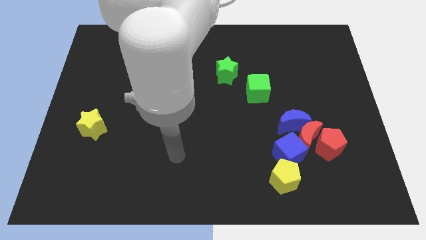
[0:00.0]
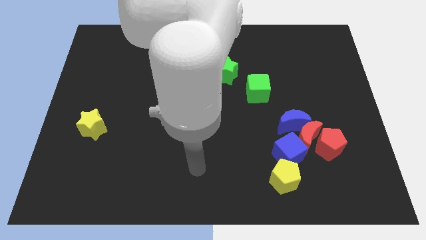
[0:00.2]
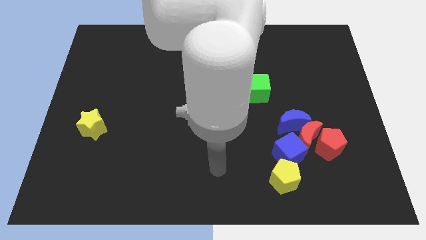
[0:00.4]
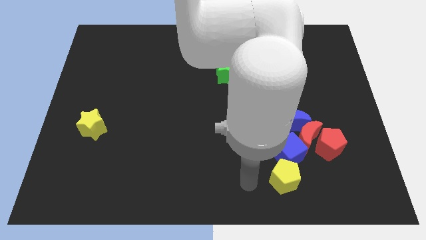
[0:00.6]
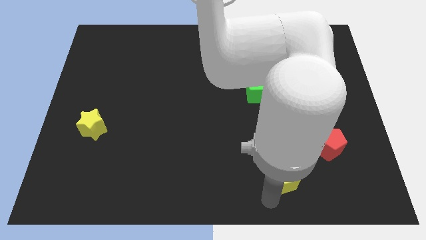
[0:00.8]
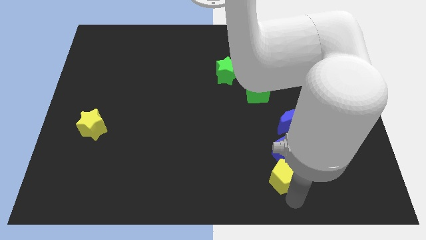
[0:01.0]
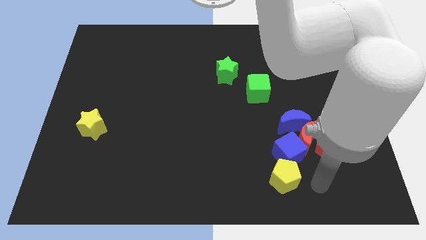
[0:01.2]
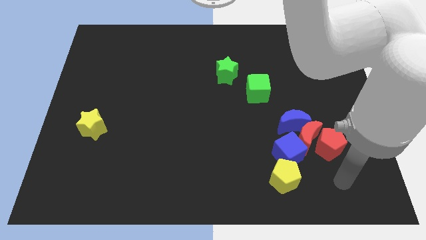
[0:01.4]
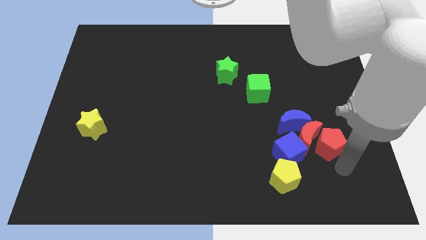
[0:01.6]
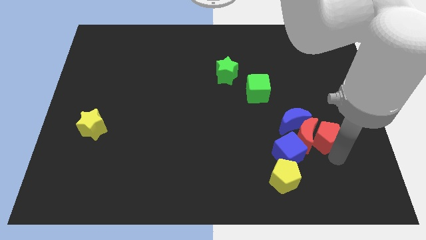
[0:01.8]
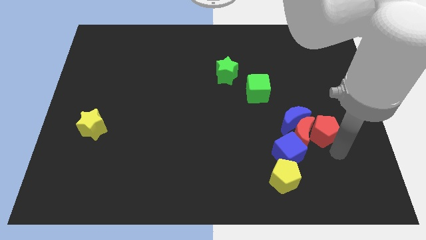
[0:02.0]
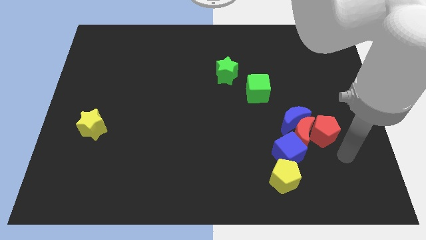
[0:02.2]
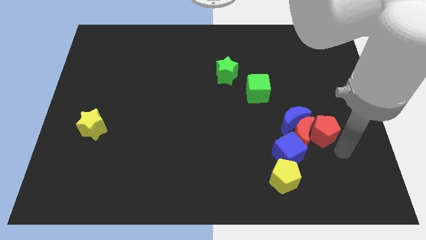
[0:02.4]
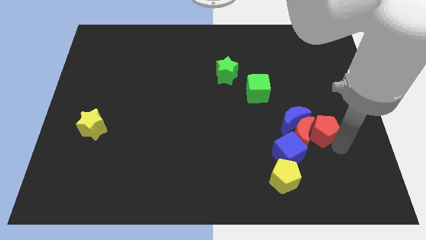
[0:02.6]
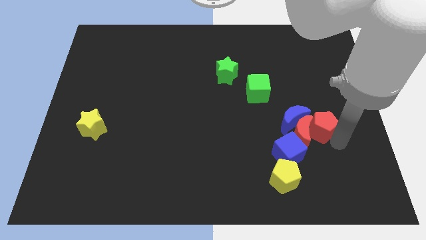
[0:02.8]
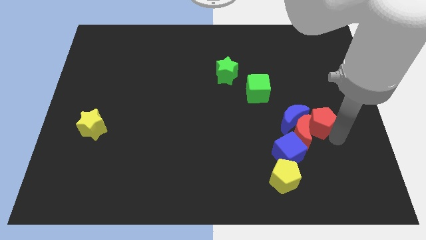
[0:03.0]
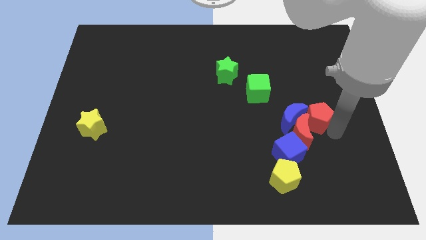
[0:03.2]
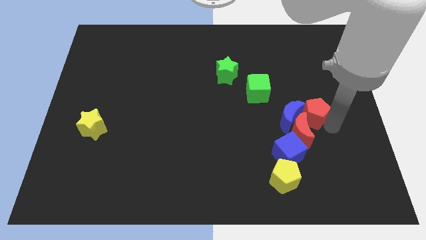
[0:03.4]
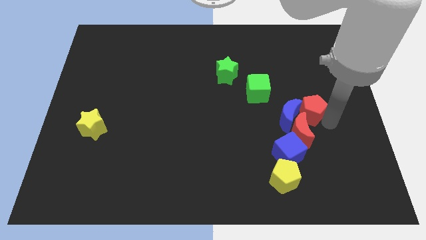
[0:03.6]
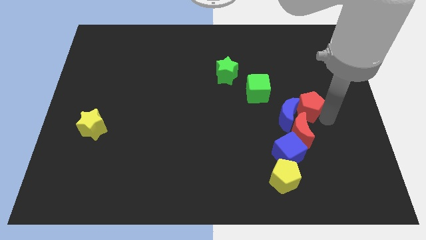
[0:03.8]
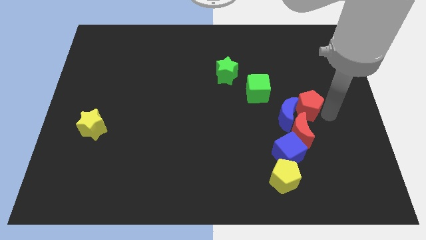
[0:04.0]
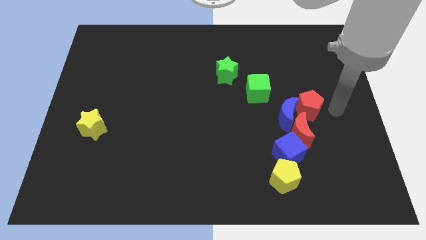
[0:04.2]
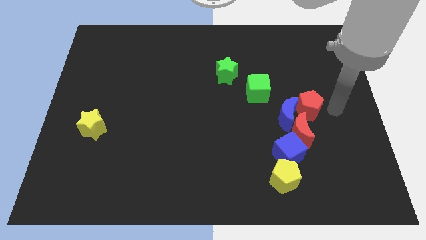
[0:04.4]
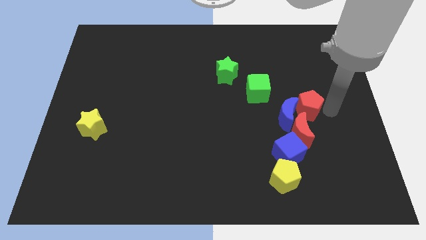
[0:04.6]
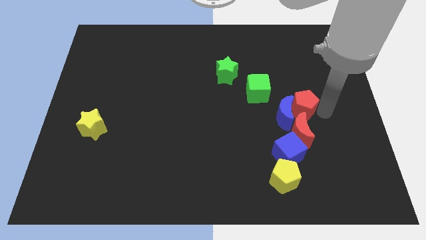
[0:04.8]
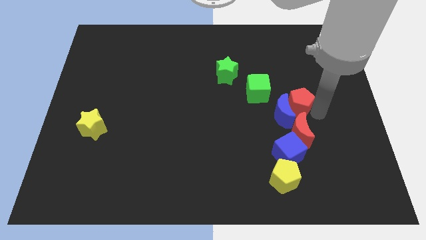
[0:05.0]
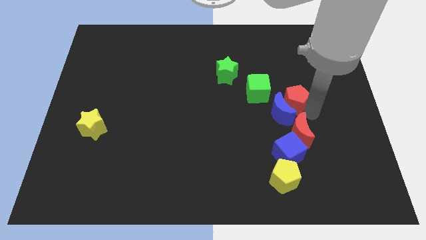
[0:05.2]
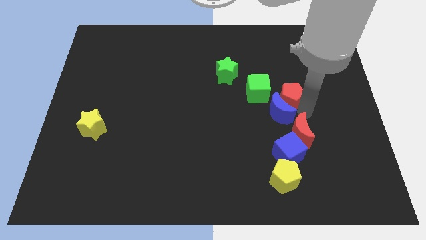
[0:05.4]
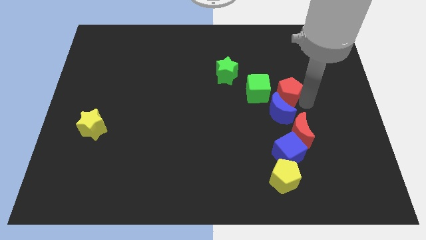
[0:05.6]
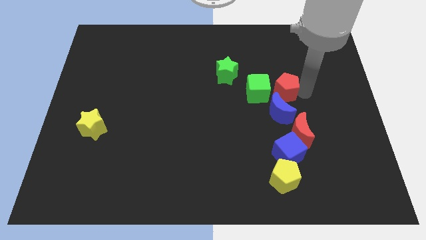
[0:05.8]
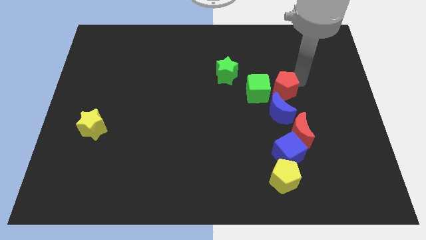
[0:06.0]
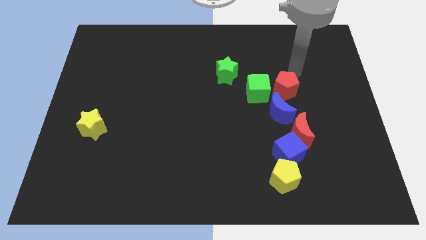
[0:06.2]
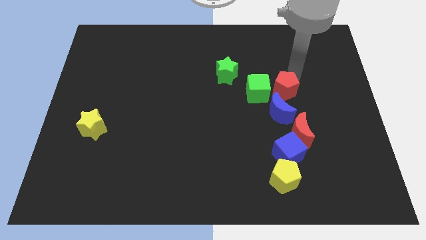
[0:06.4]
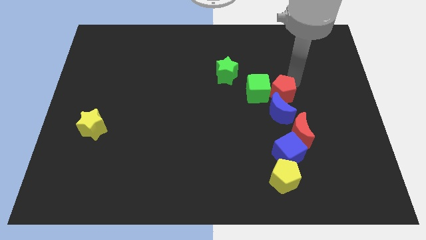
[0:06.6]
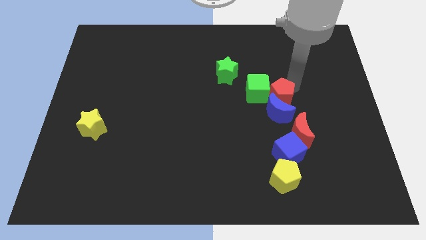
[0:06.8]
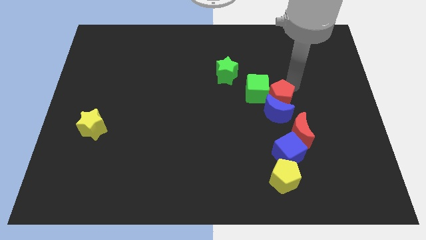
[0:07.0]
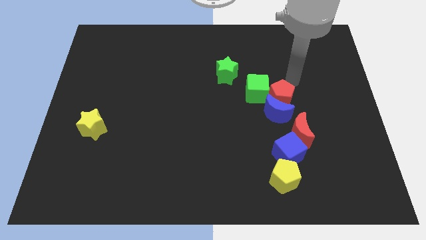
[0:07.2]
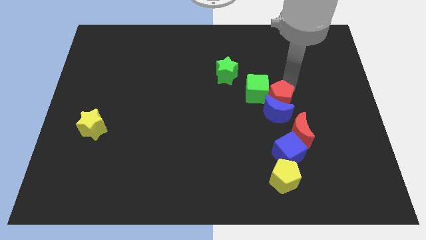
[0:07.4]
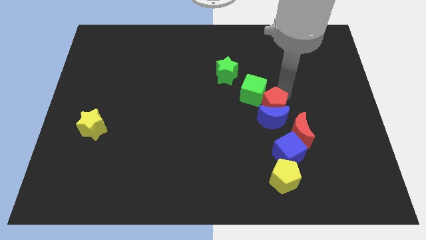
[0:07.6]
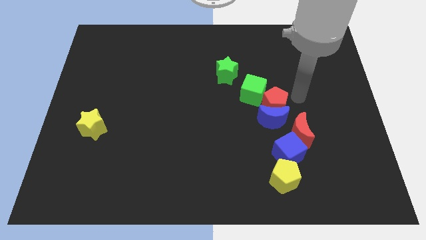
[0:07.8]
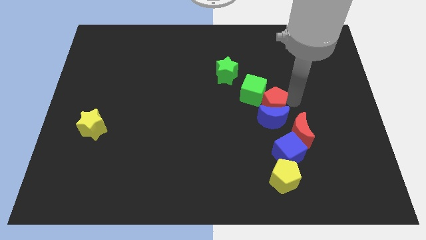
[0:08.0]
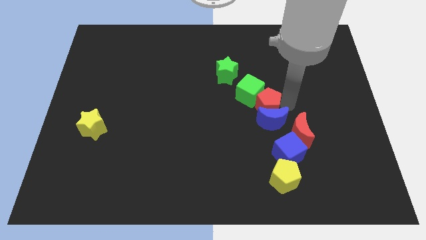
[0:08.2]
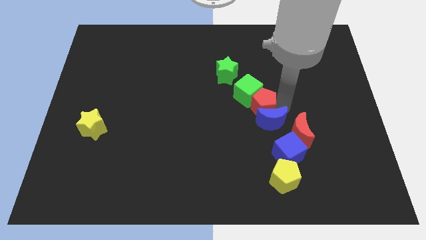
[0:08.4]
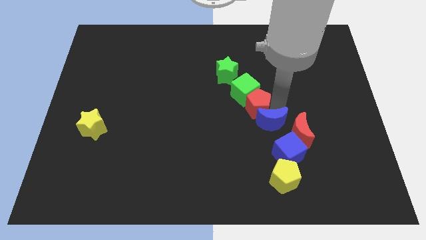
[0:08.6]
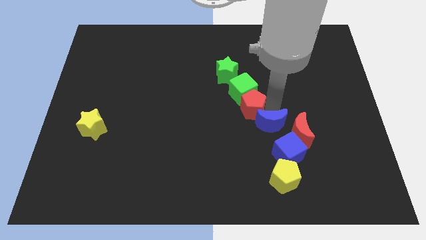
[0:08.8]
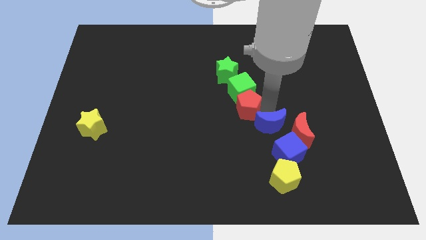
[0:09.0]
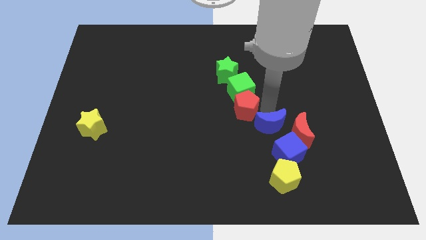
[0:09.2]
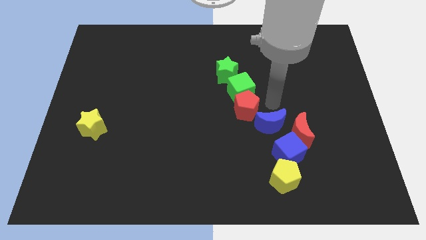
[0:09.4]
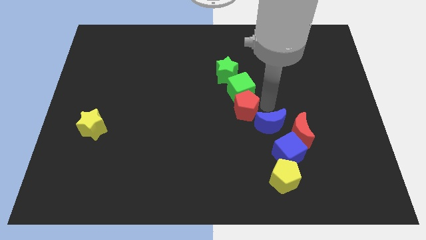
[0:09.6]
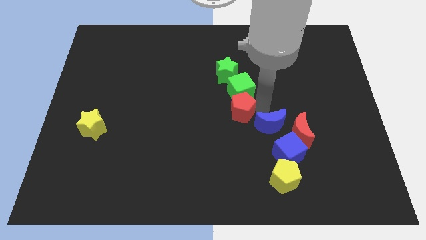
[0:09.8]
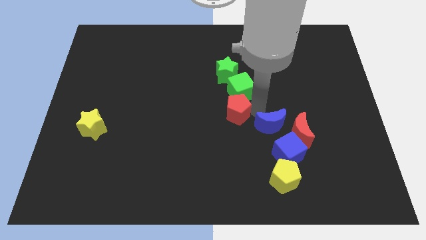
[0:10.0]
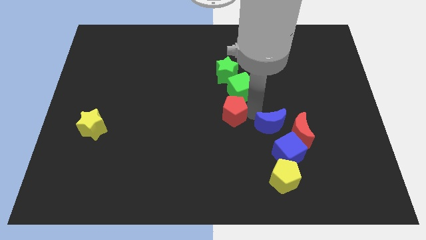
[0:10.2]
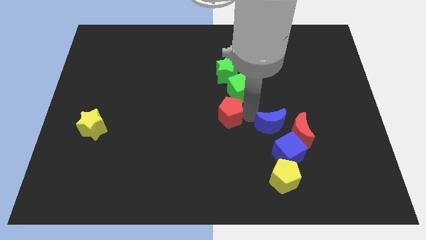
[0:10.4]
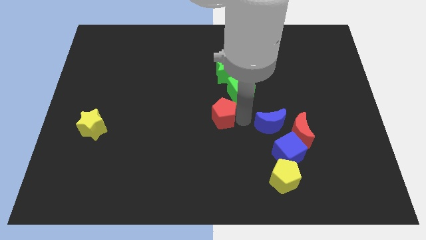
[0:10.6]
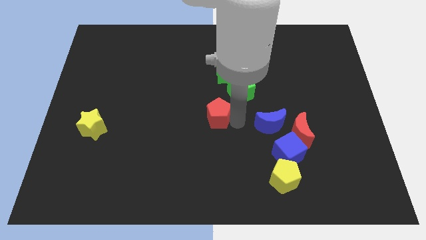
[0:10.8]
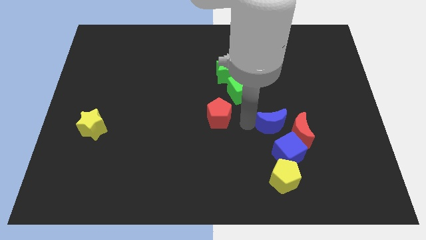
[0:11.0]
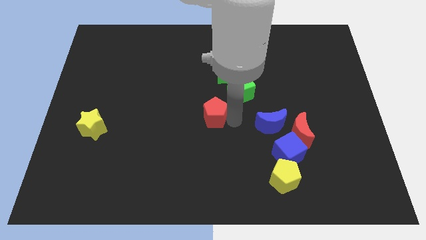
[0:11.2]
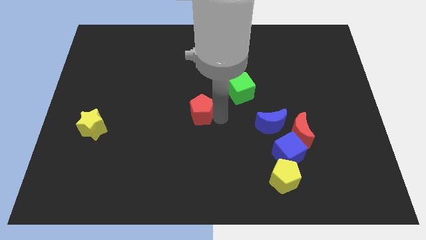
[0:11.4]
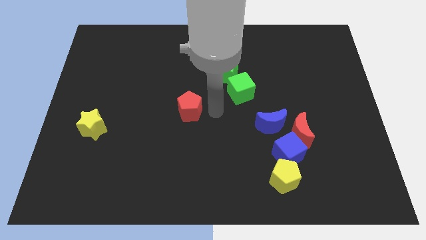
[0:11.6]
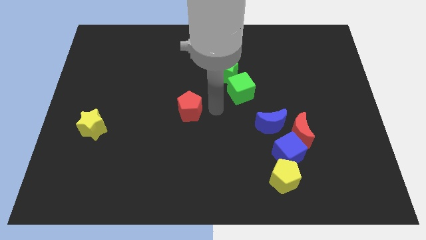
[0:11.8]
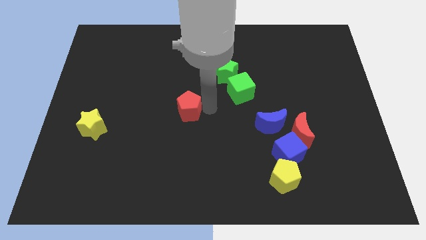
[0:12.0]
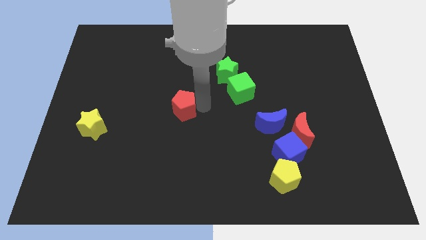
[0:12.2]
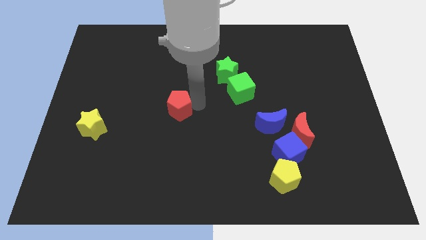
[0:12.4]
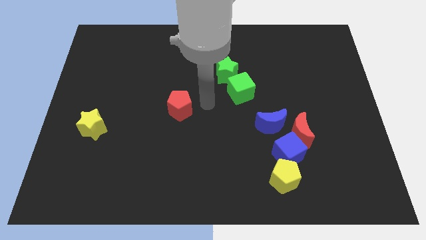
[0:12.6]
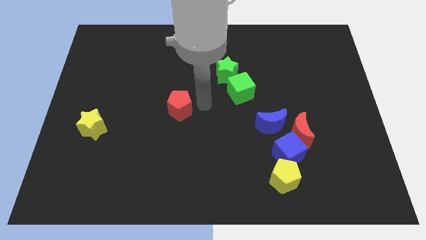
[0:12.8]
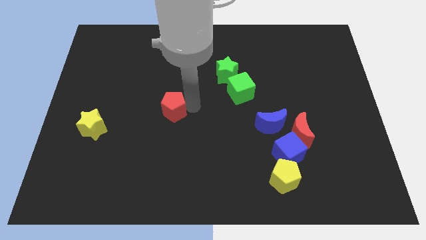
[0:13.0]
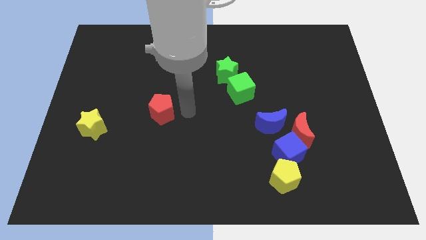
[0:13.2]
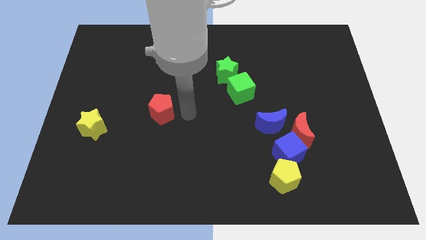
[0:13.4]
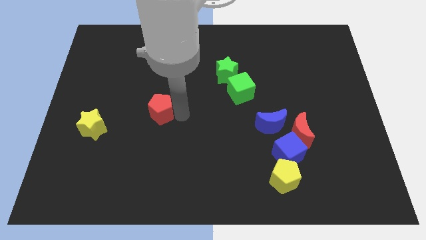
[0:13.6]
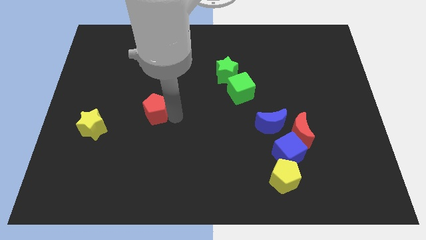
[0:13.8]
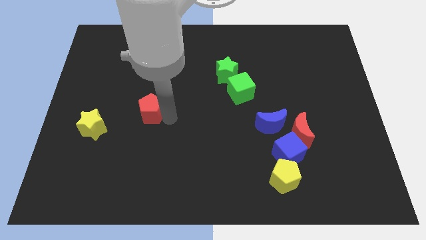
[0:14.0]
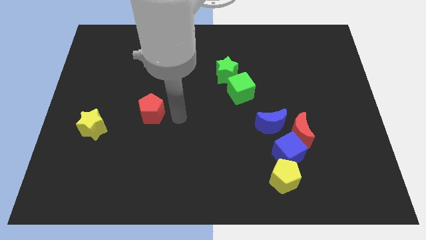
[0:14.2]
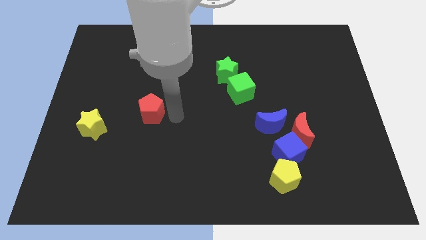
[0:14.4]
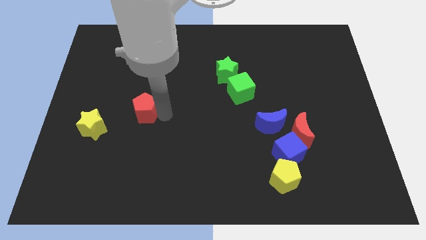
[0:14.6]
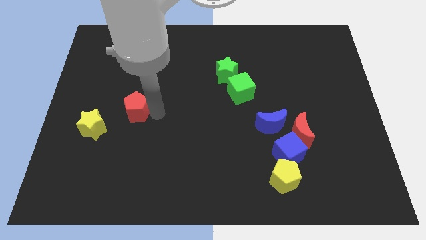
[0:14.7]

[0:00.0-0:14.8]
put the red pentagon to the top right of the yellow star
